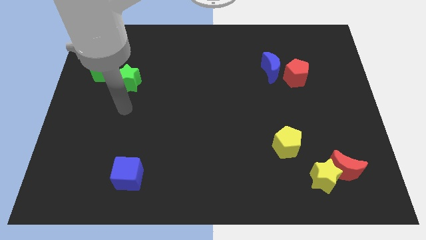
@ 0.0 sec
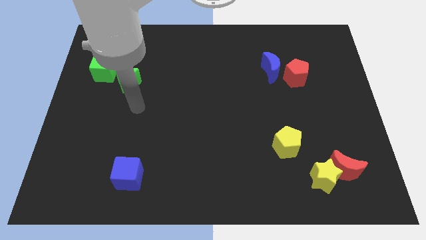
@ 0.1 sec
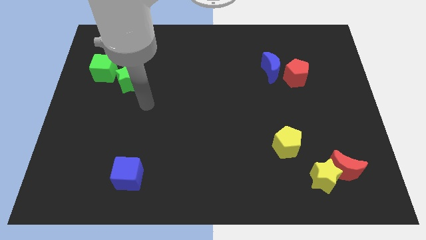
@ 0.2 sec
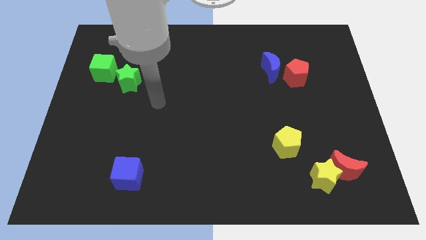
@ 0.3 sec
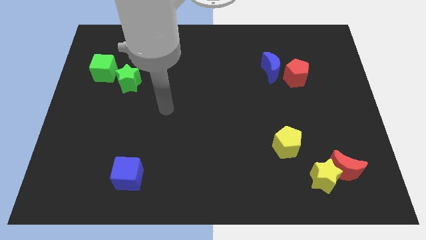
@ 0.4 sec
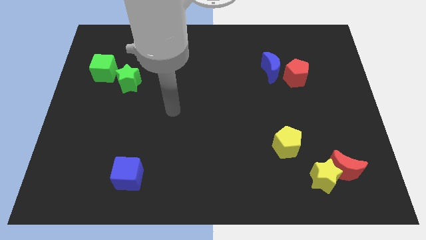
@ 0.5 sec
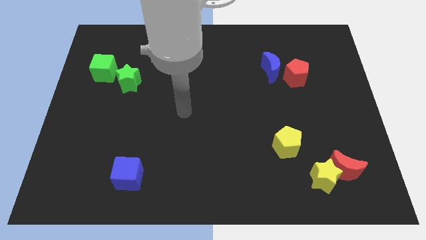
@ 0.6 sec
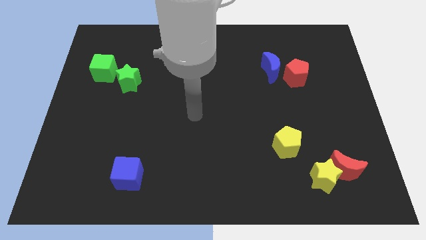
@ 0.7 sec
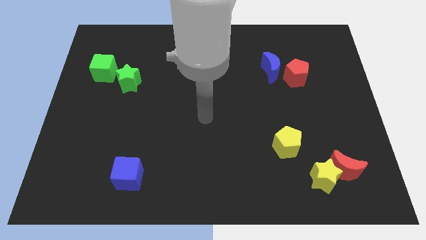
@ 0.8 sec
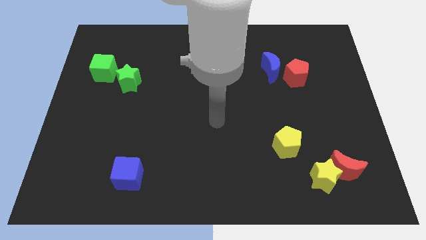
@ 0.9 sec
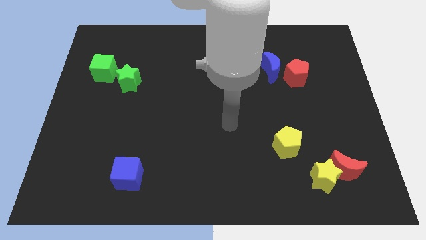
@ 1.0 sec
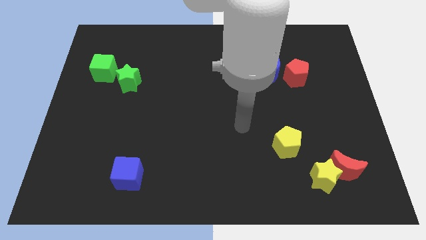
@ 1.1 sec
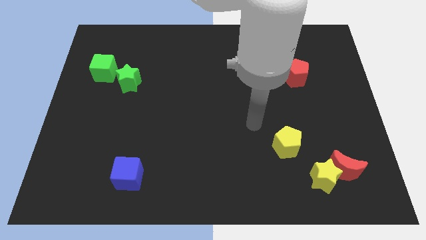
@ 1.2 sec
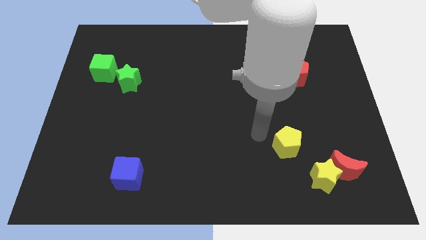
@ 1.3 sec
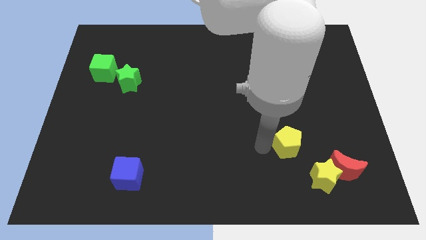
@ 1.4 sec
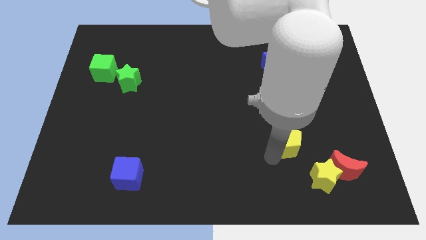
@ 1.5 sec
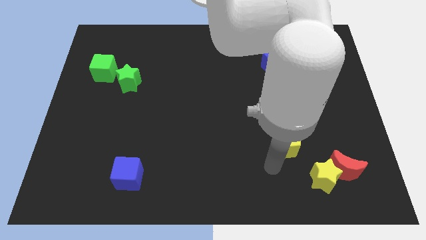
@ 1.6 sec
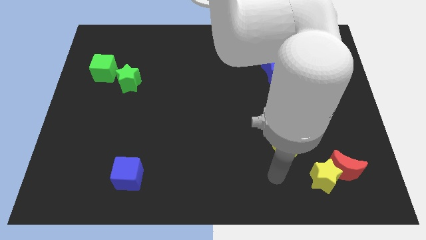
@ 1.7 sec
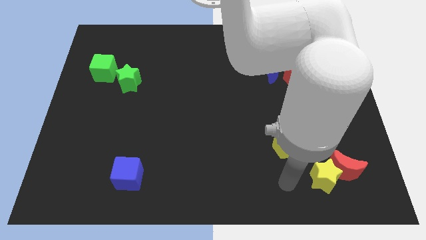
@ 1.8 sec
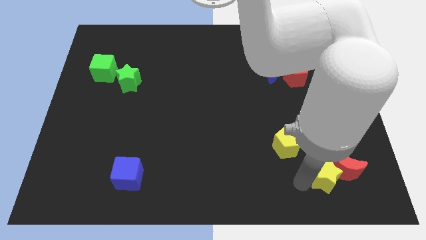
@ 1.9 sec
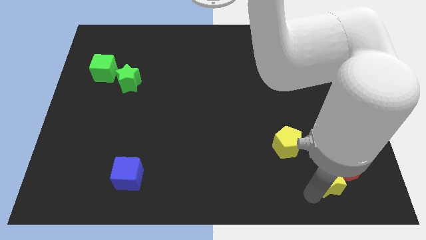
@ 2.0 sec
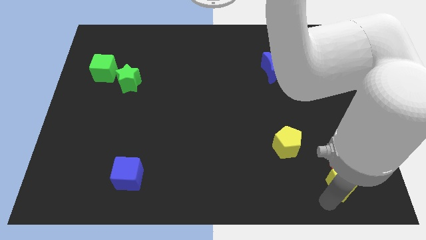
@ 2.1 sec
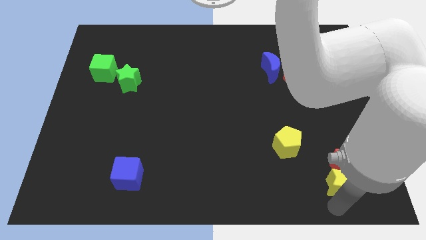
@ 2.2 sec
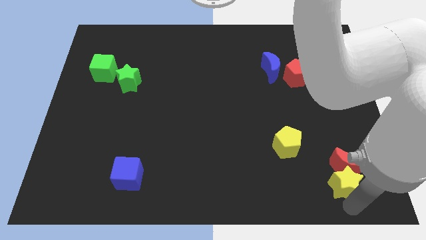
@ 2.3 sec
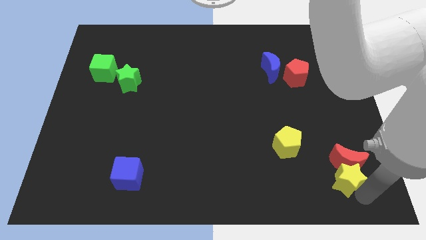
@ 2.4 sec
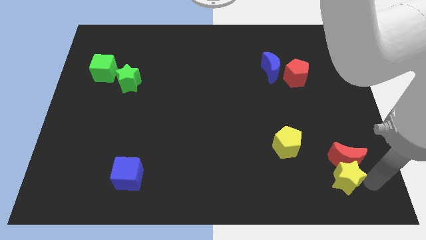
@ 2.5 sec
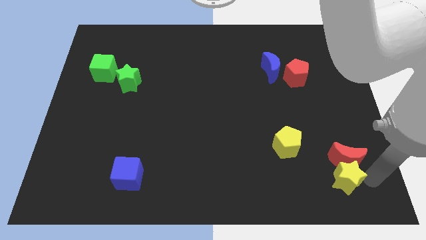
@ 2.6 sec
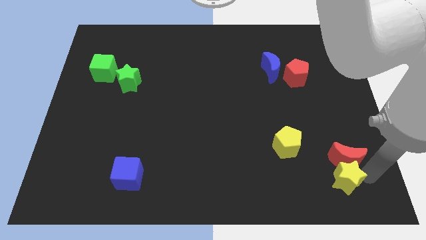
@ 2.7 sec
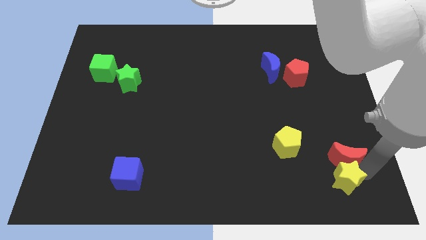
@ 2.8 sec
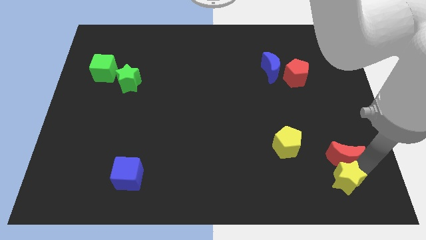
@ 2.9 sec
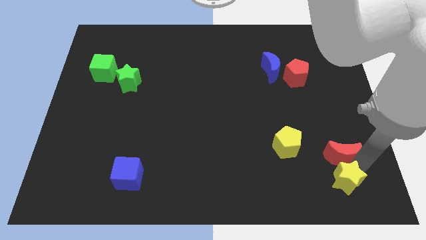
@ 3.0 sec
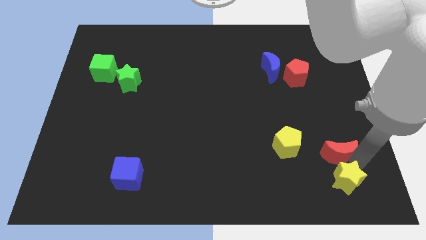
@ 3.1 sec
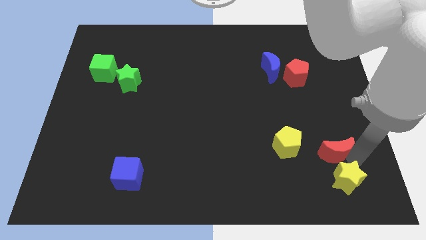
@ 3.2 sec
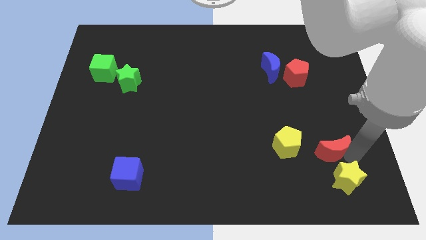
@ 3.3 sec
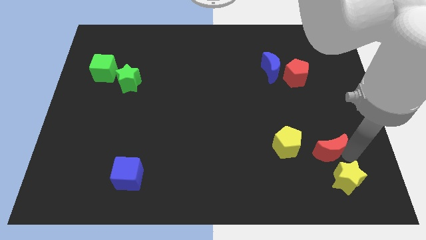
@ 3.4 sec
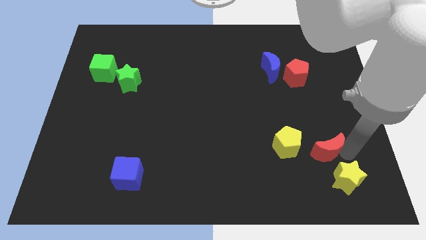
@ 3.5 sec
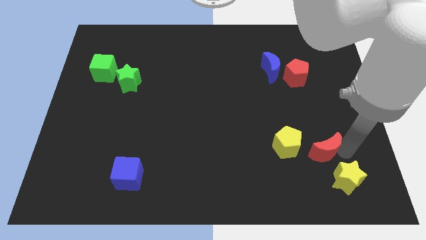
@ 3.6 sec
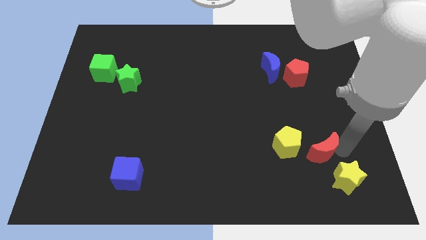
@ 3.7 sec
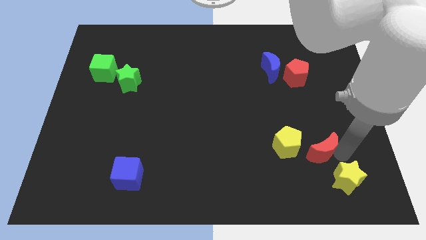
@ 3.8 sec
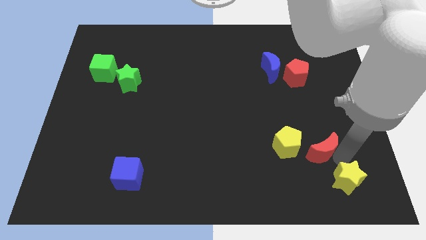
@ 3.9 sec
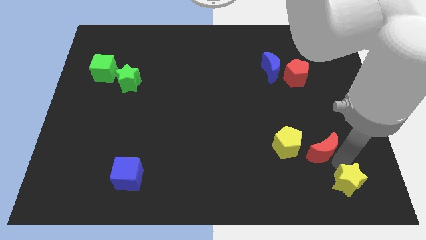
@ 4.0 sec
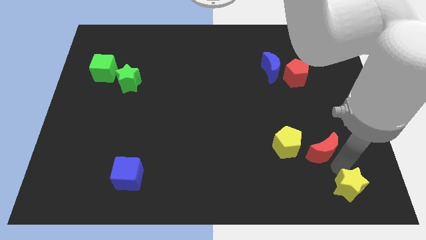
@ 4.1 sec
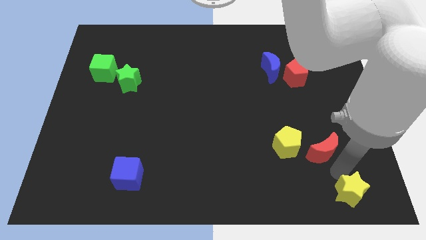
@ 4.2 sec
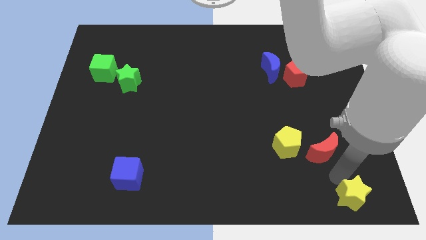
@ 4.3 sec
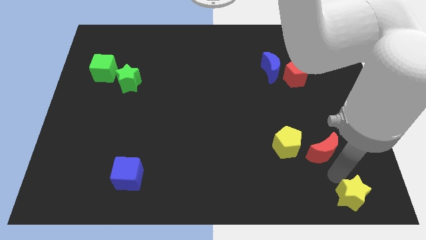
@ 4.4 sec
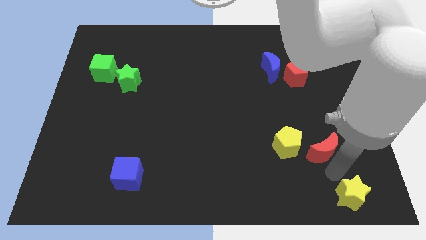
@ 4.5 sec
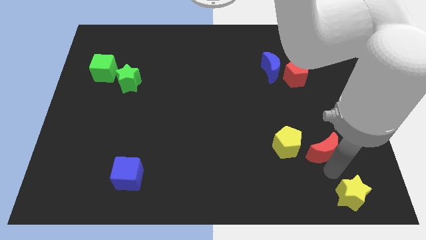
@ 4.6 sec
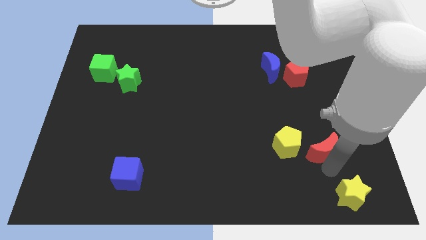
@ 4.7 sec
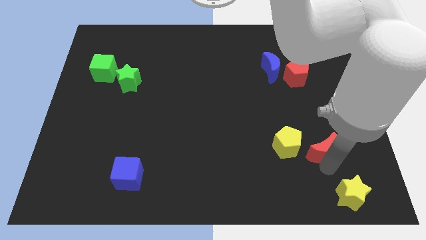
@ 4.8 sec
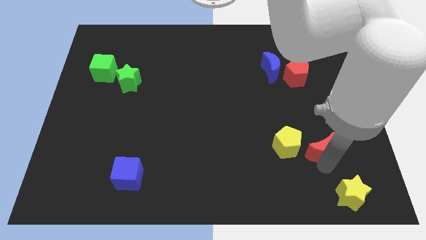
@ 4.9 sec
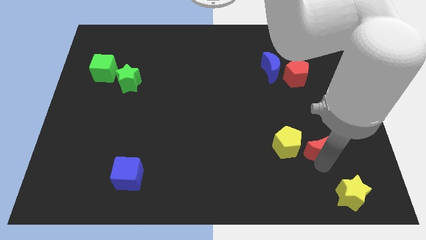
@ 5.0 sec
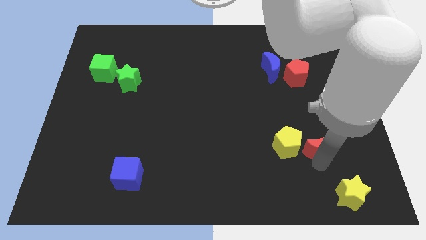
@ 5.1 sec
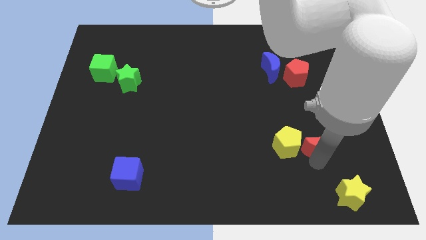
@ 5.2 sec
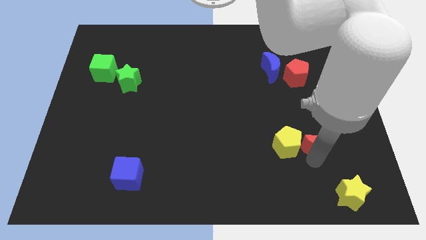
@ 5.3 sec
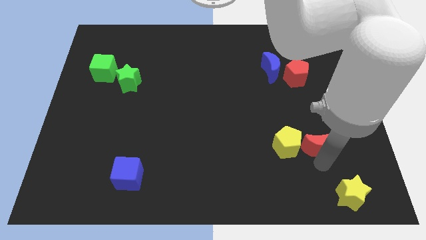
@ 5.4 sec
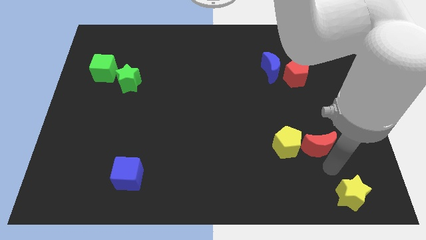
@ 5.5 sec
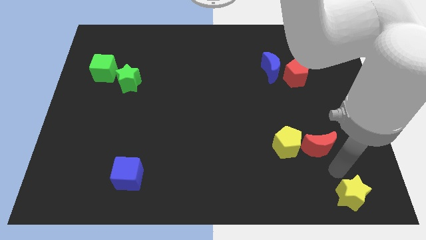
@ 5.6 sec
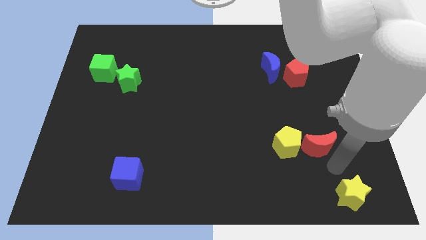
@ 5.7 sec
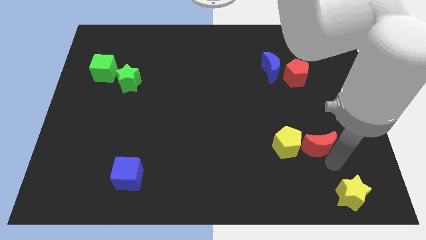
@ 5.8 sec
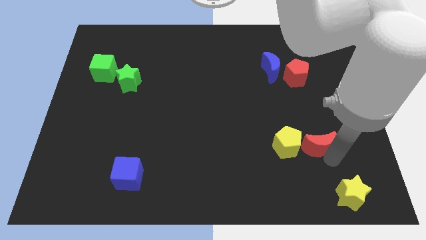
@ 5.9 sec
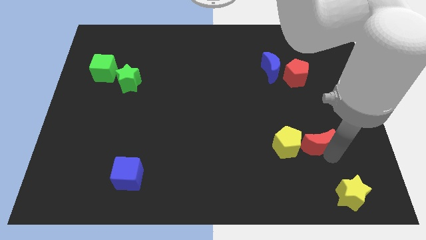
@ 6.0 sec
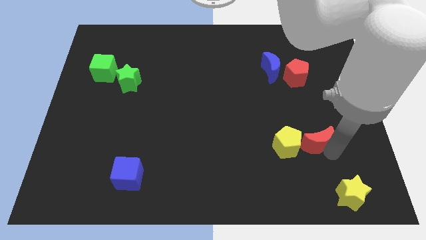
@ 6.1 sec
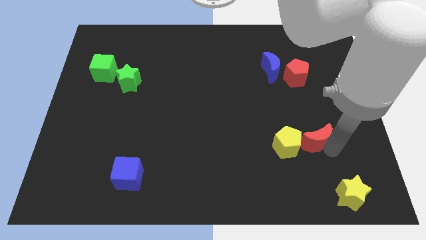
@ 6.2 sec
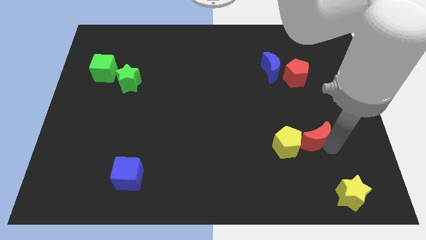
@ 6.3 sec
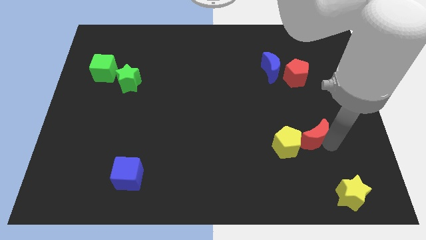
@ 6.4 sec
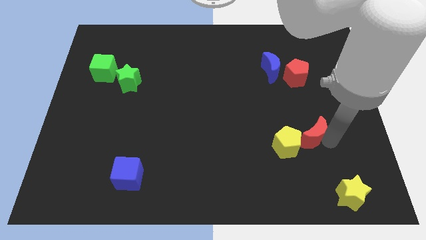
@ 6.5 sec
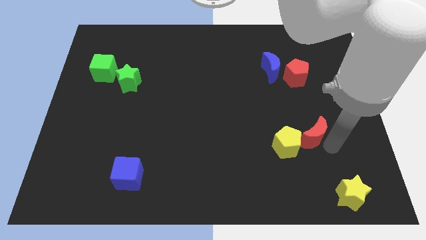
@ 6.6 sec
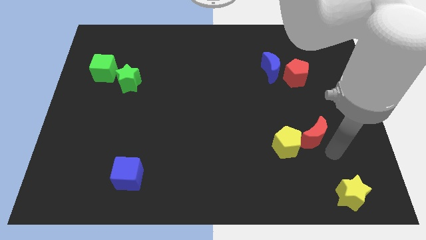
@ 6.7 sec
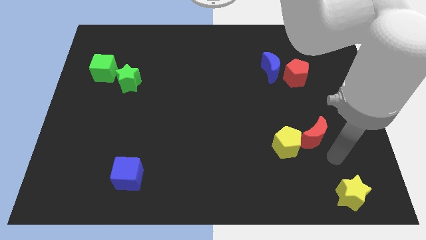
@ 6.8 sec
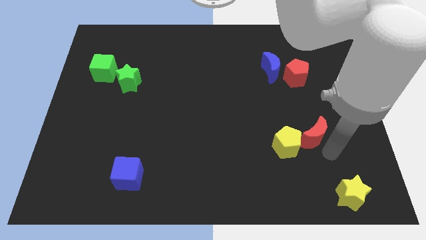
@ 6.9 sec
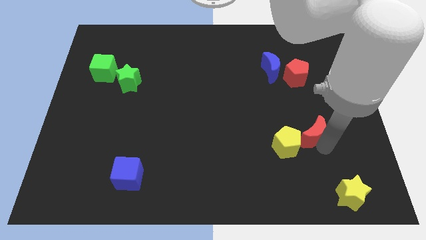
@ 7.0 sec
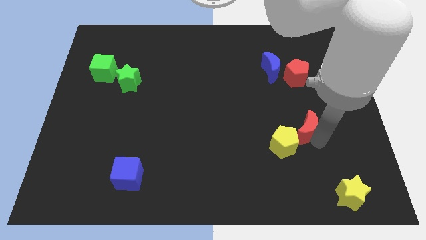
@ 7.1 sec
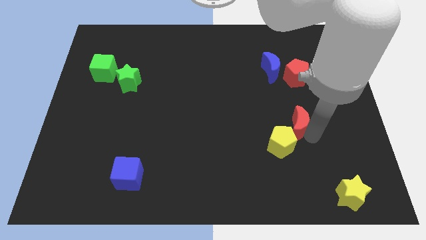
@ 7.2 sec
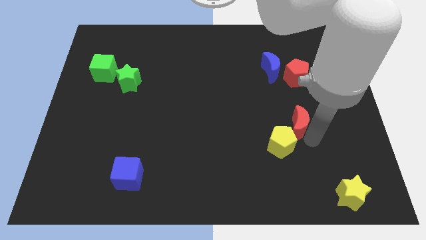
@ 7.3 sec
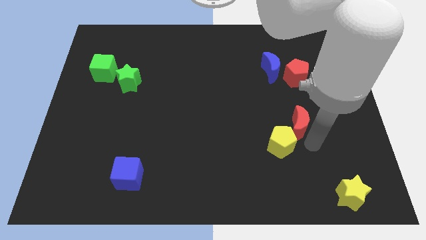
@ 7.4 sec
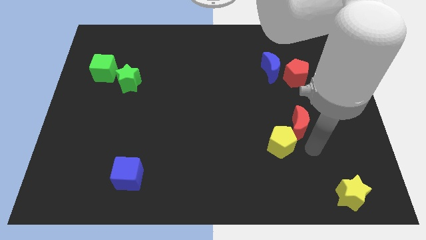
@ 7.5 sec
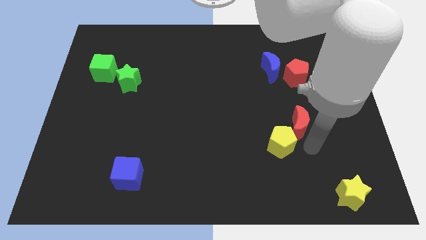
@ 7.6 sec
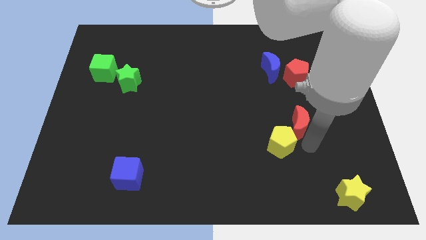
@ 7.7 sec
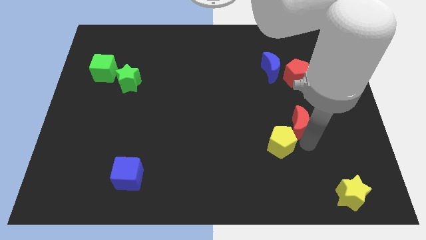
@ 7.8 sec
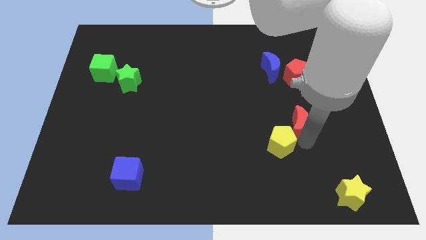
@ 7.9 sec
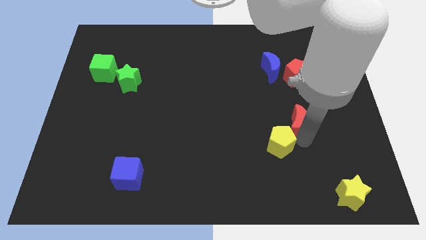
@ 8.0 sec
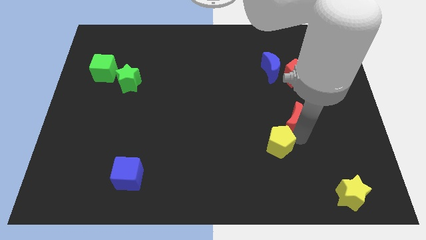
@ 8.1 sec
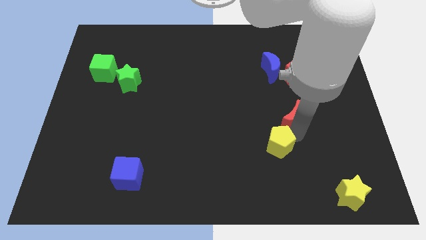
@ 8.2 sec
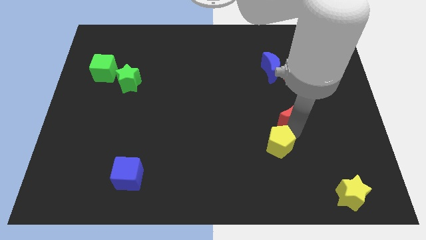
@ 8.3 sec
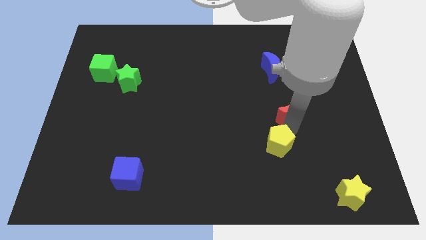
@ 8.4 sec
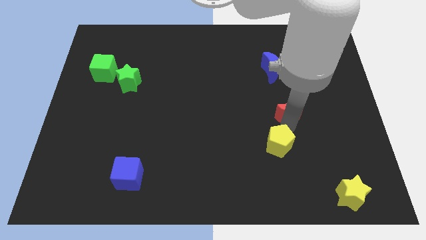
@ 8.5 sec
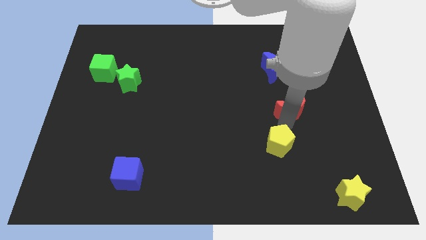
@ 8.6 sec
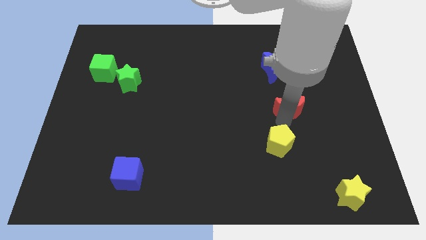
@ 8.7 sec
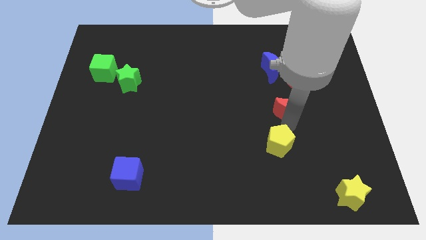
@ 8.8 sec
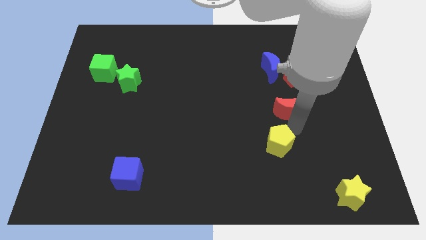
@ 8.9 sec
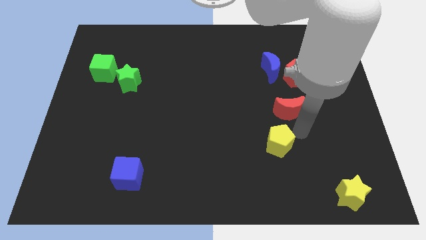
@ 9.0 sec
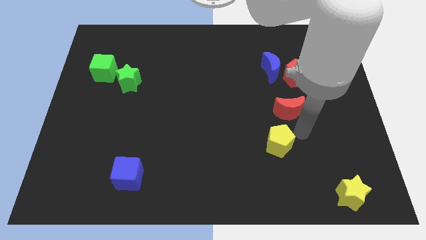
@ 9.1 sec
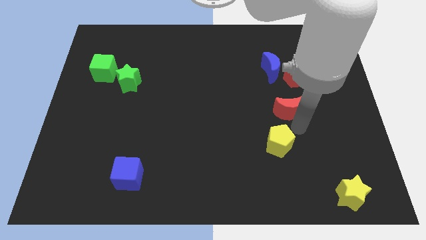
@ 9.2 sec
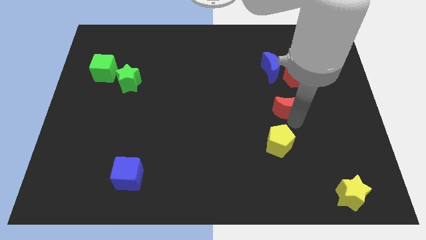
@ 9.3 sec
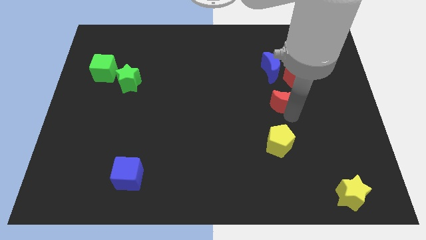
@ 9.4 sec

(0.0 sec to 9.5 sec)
push the red moon to the bottom left of the red pentagon
